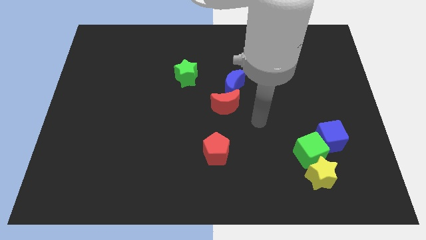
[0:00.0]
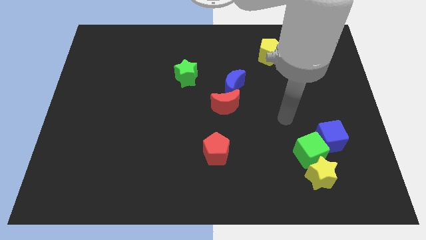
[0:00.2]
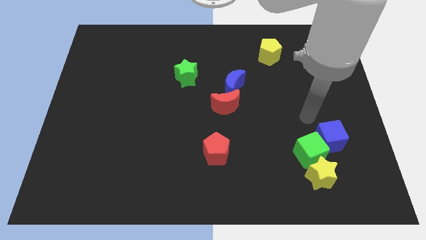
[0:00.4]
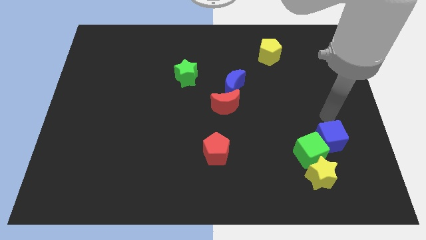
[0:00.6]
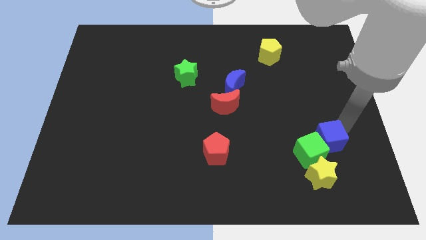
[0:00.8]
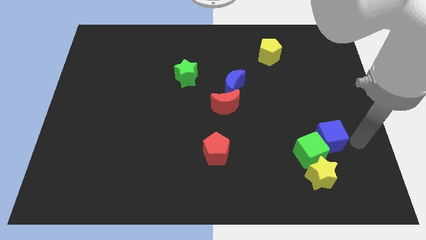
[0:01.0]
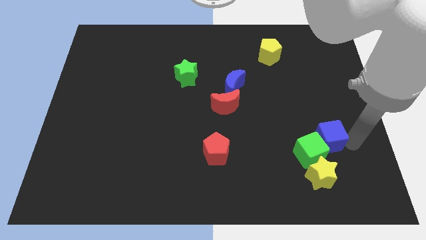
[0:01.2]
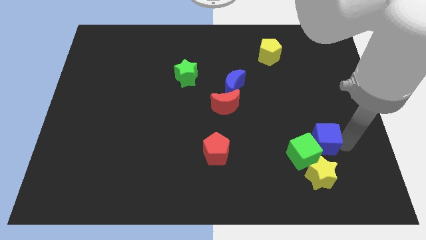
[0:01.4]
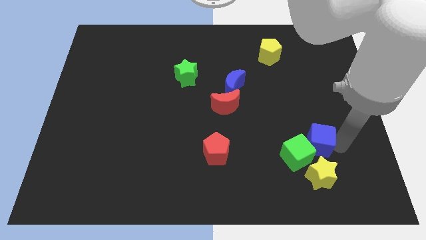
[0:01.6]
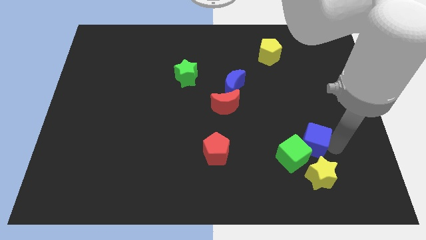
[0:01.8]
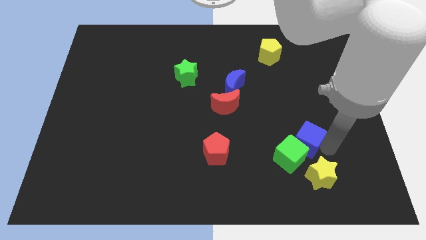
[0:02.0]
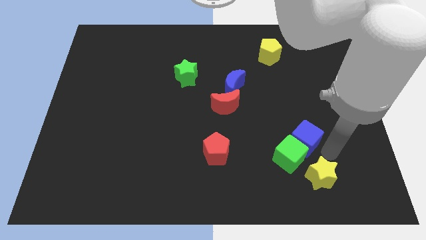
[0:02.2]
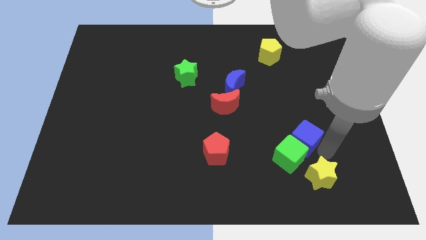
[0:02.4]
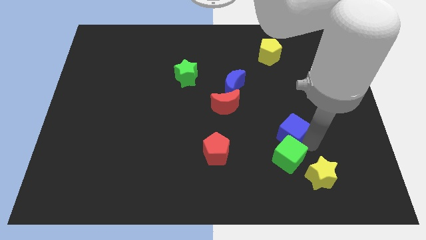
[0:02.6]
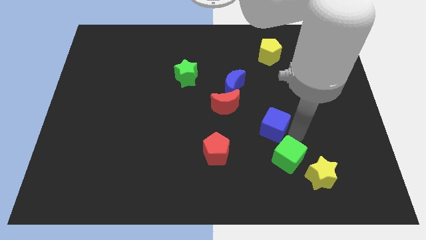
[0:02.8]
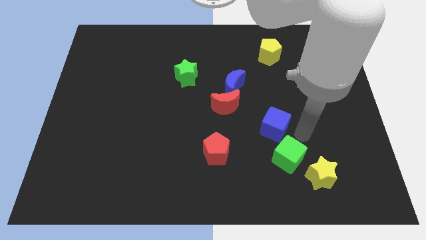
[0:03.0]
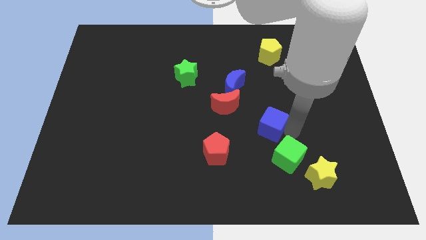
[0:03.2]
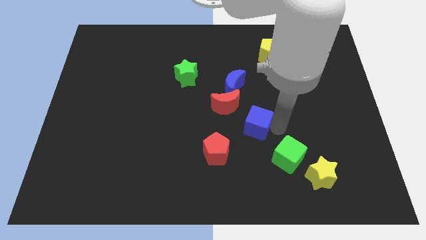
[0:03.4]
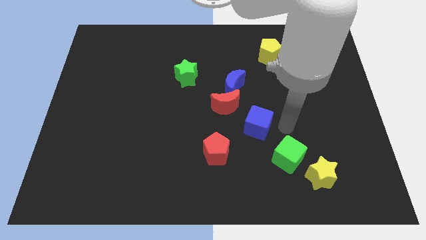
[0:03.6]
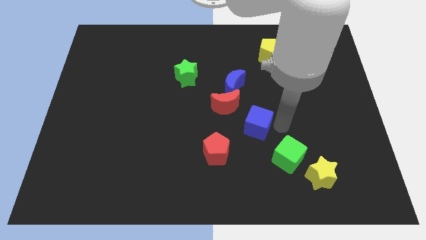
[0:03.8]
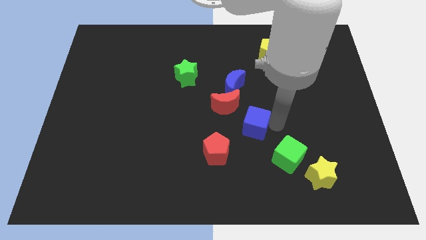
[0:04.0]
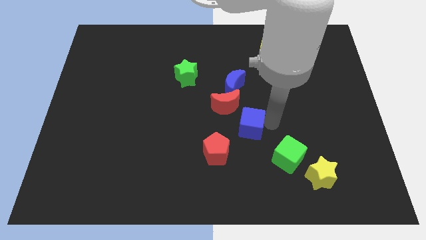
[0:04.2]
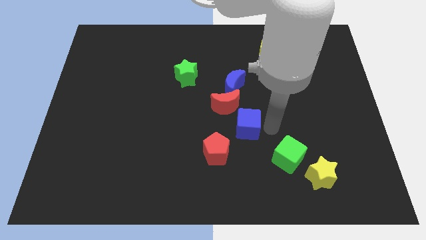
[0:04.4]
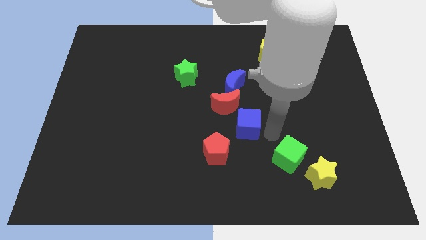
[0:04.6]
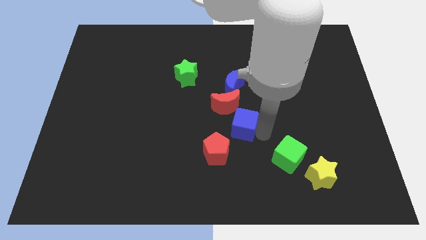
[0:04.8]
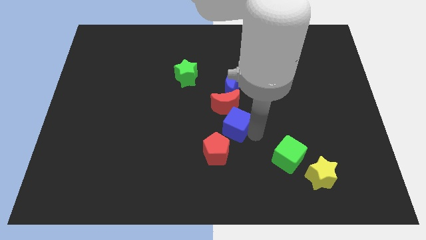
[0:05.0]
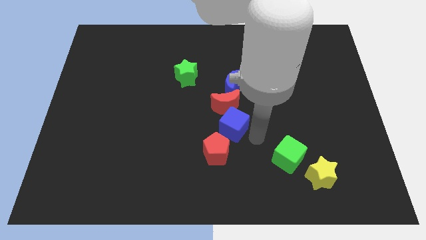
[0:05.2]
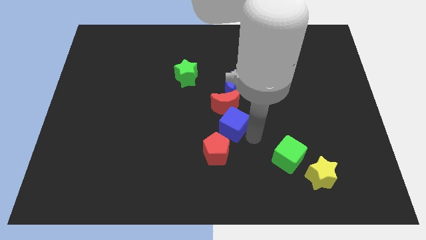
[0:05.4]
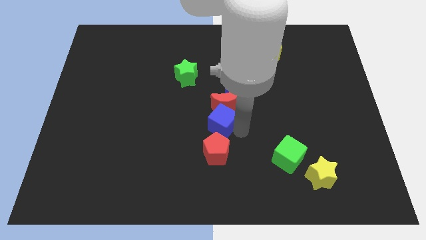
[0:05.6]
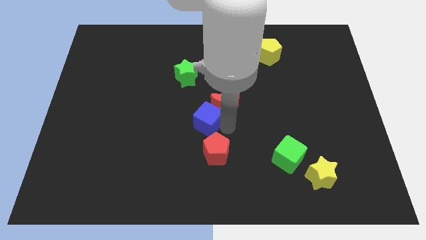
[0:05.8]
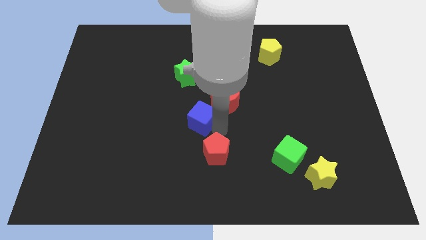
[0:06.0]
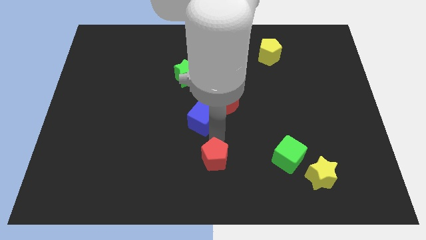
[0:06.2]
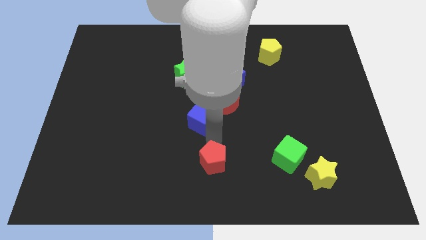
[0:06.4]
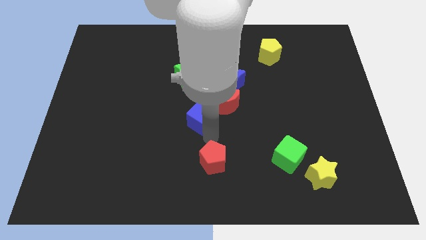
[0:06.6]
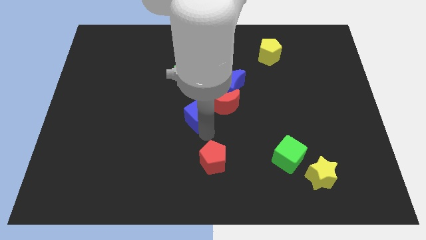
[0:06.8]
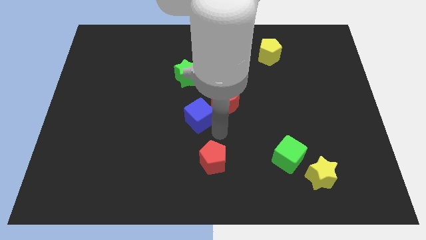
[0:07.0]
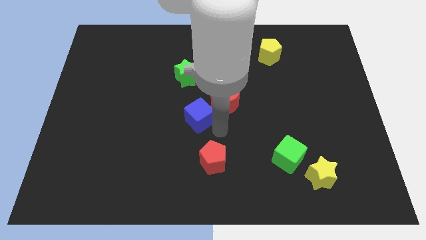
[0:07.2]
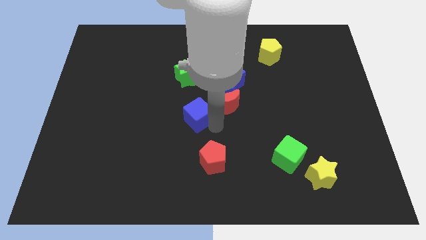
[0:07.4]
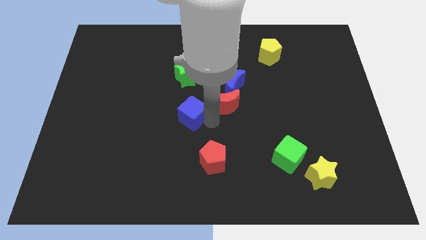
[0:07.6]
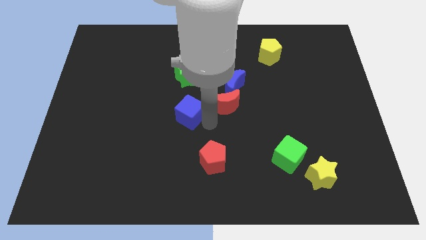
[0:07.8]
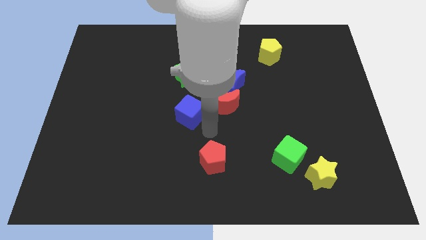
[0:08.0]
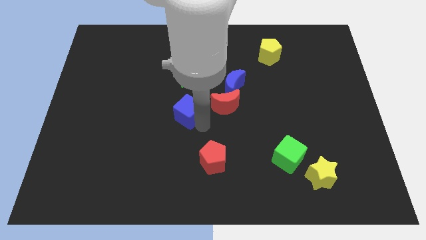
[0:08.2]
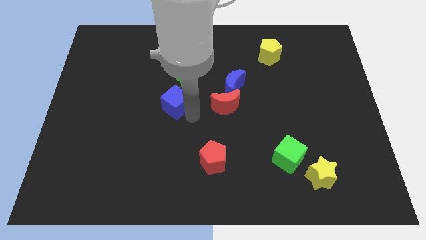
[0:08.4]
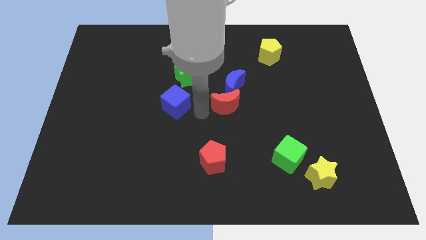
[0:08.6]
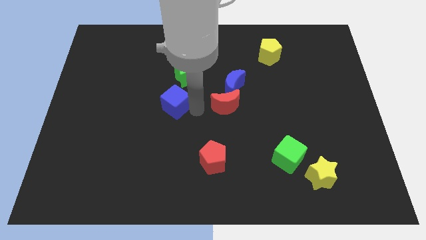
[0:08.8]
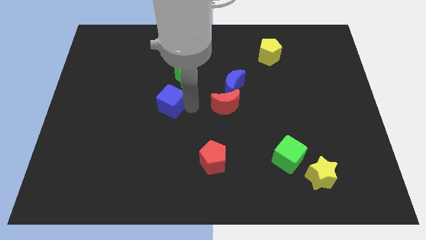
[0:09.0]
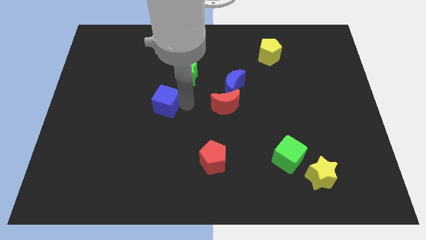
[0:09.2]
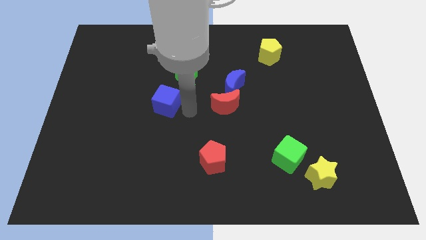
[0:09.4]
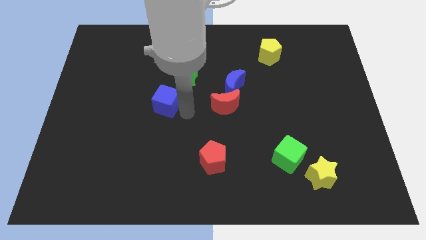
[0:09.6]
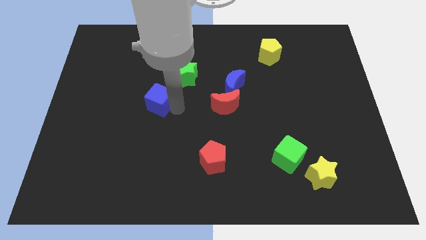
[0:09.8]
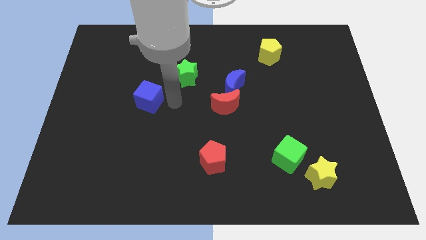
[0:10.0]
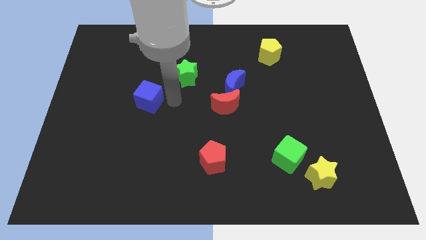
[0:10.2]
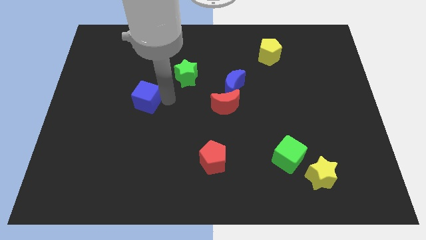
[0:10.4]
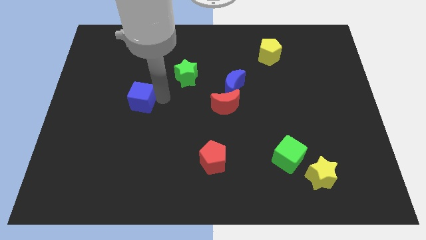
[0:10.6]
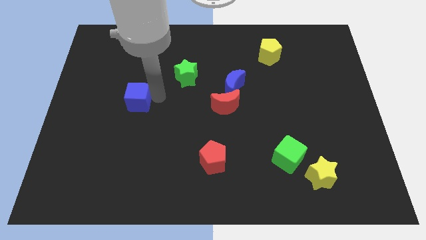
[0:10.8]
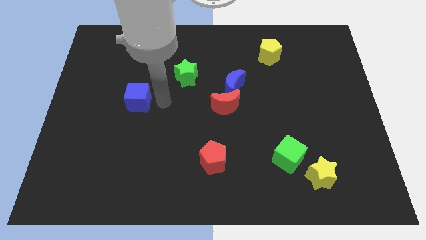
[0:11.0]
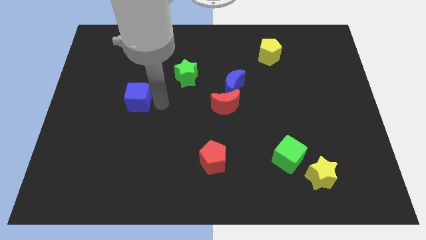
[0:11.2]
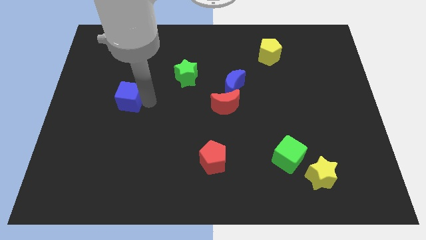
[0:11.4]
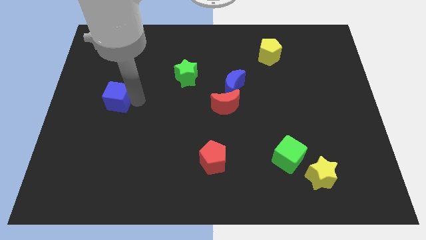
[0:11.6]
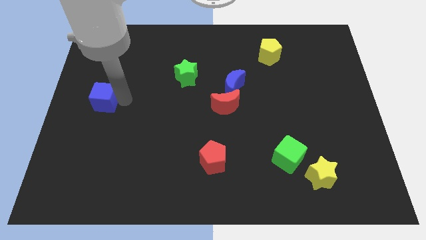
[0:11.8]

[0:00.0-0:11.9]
move the blue cube to the left side

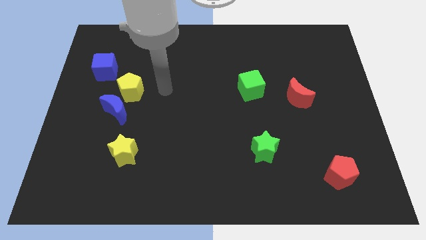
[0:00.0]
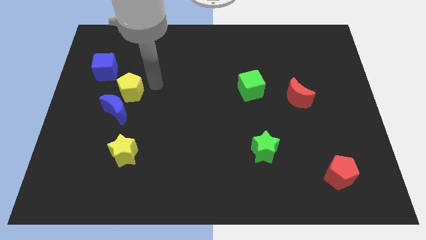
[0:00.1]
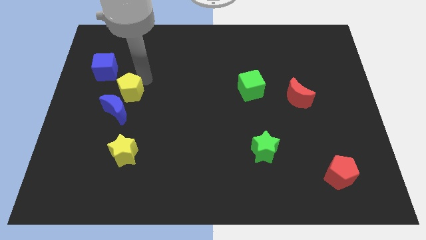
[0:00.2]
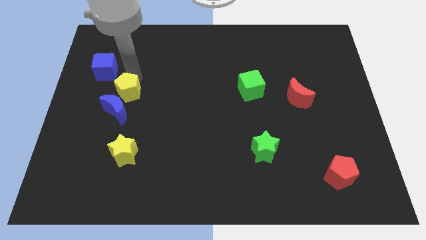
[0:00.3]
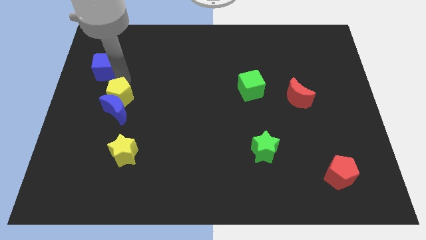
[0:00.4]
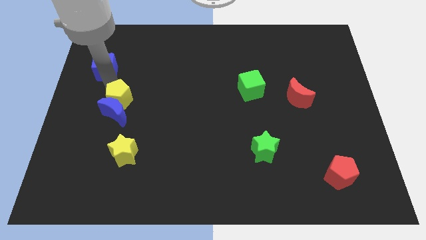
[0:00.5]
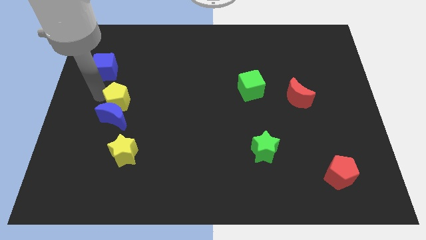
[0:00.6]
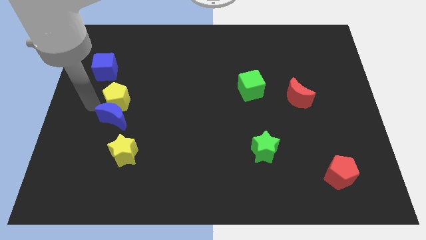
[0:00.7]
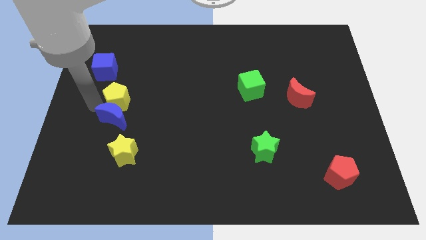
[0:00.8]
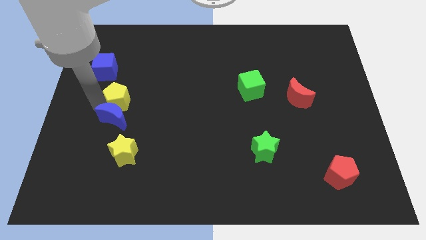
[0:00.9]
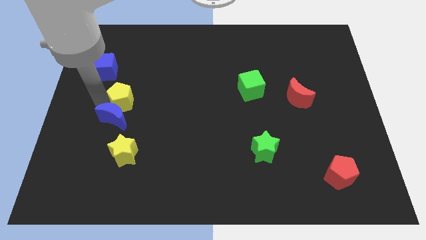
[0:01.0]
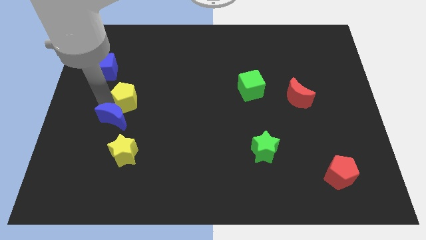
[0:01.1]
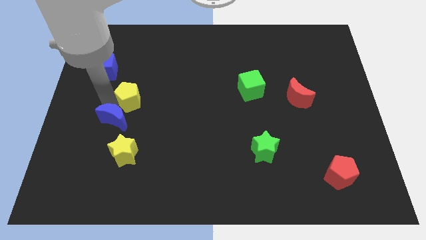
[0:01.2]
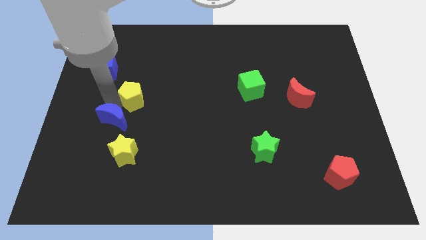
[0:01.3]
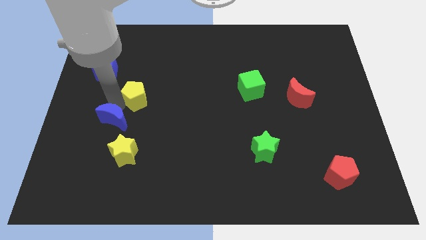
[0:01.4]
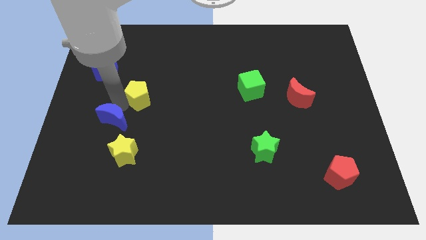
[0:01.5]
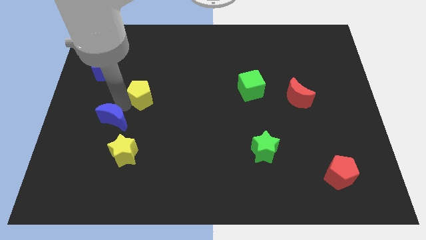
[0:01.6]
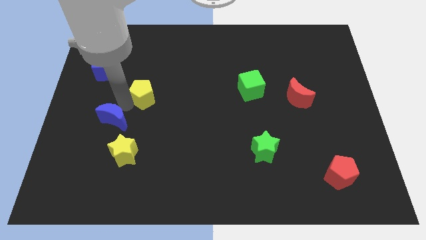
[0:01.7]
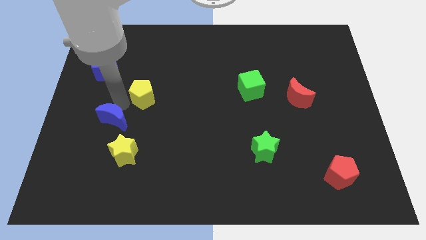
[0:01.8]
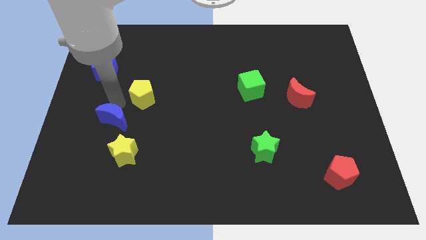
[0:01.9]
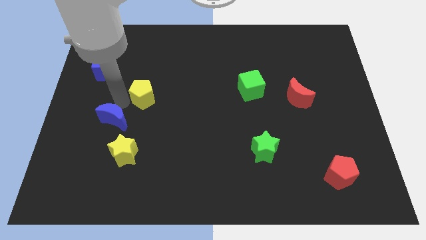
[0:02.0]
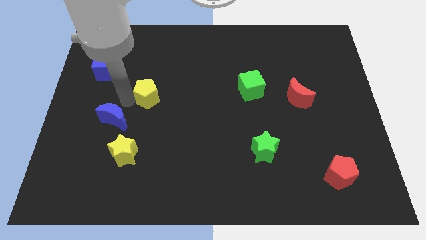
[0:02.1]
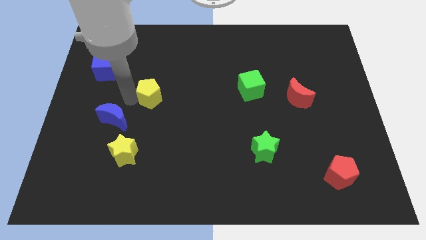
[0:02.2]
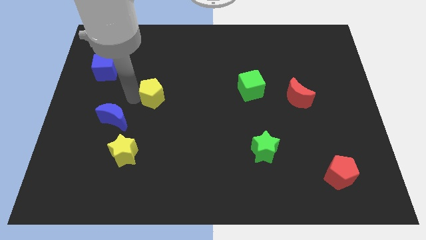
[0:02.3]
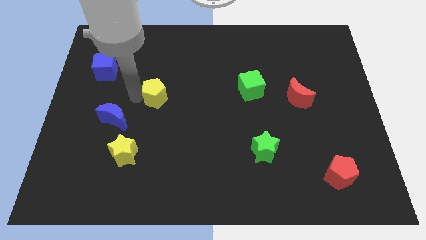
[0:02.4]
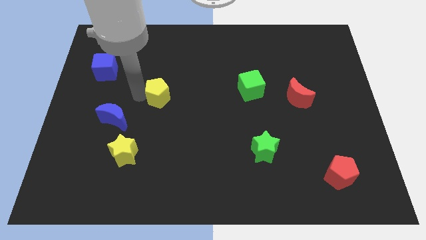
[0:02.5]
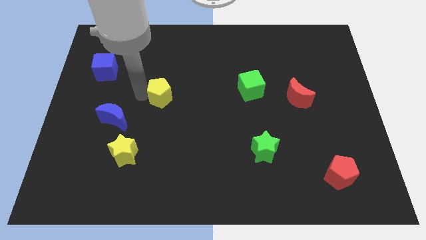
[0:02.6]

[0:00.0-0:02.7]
put the yellow pentagon to the center of the board
